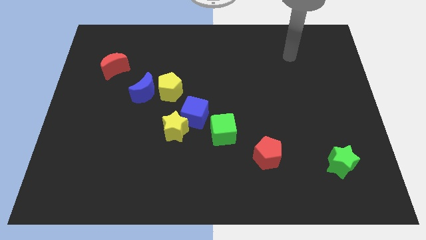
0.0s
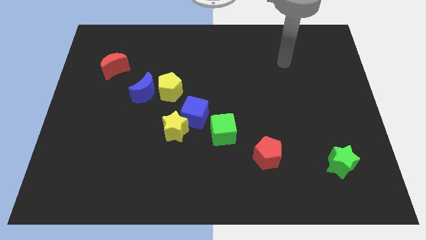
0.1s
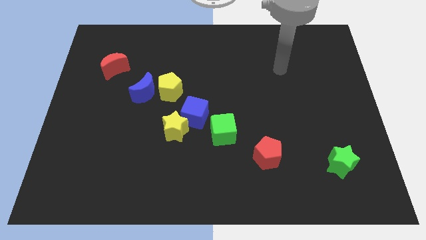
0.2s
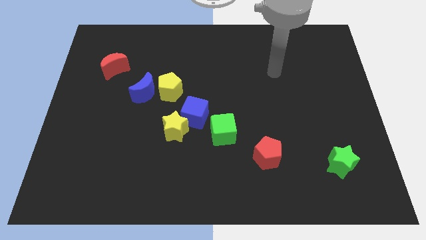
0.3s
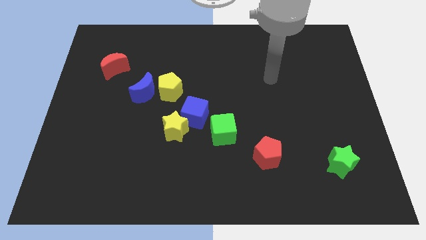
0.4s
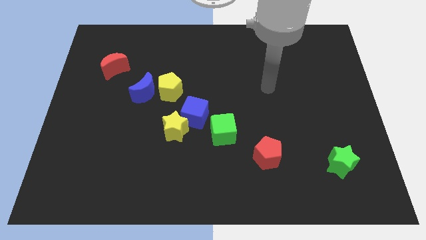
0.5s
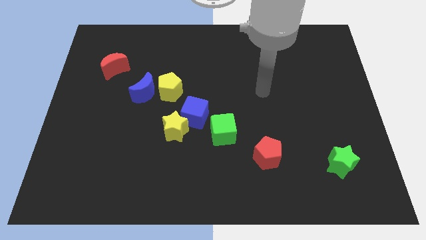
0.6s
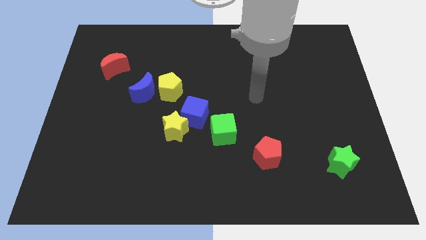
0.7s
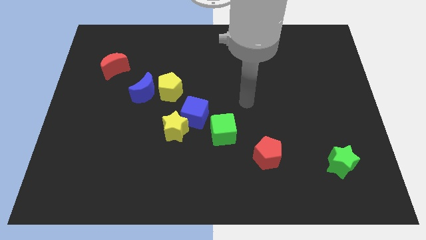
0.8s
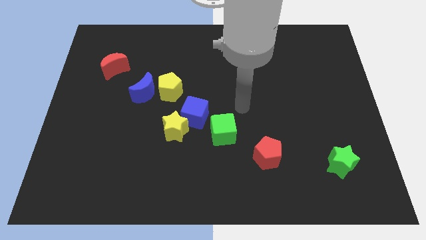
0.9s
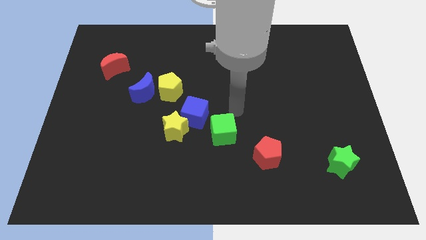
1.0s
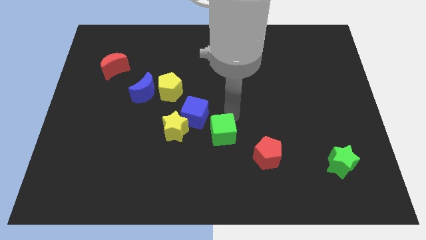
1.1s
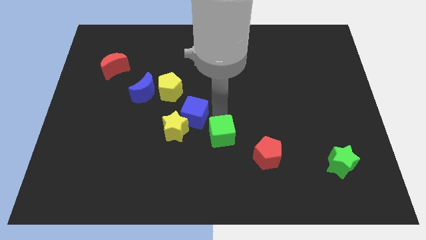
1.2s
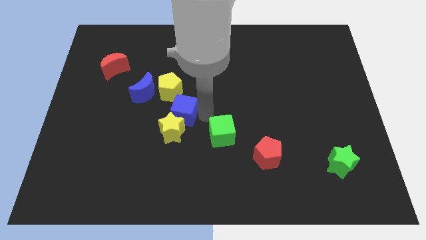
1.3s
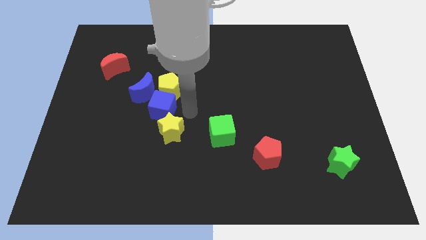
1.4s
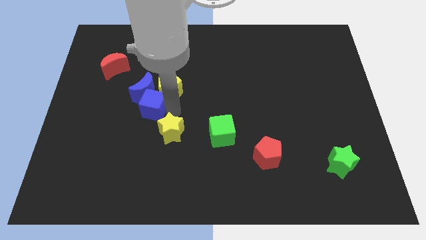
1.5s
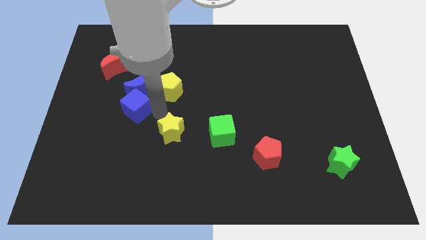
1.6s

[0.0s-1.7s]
separate the yellow star from the blue cube

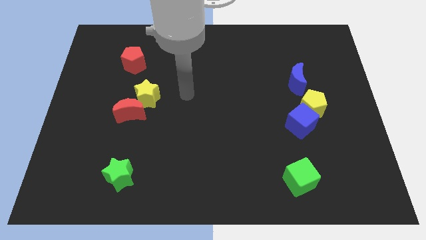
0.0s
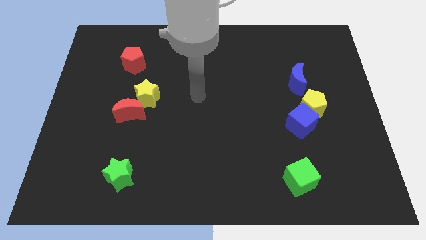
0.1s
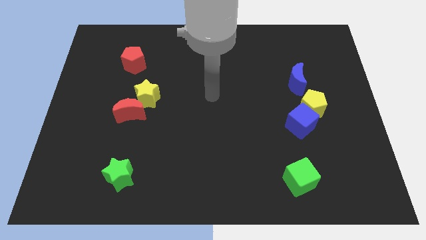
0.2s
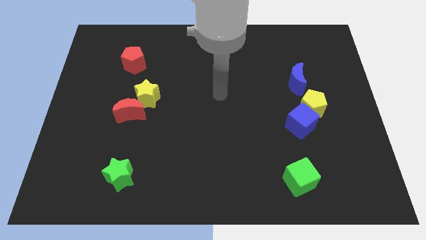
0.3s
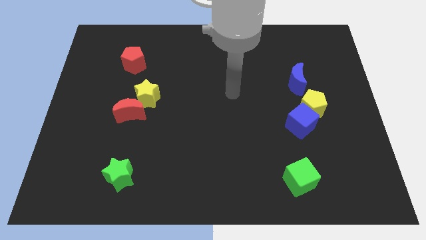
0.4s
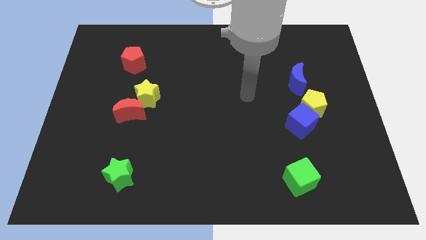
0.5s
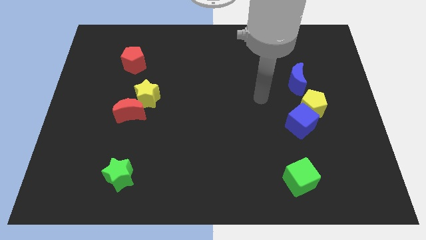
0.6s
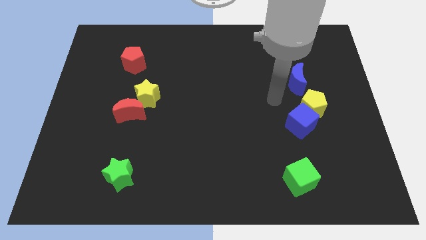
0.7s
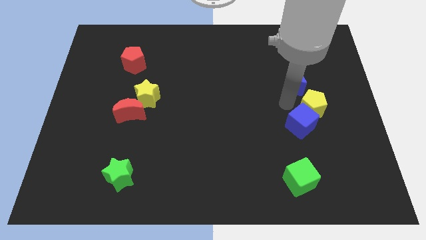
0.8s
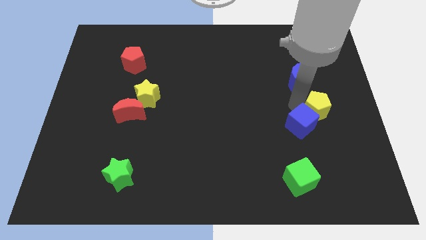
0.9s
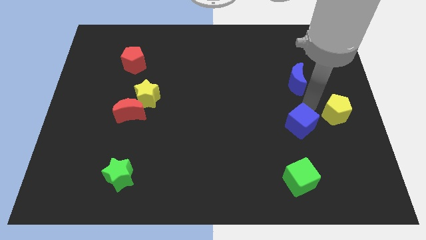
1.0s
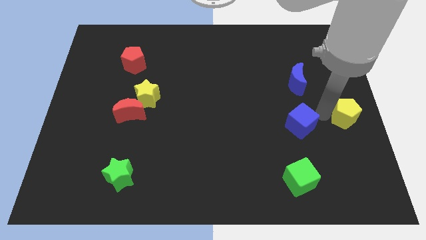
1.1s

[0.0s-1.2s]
move the blue cube away from the yellow pentagon

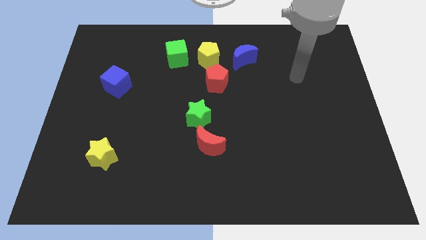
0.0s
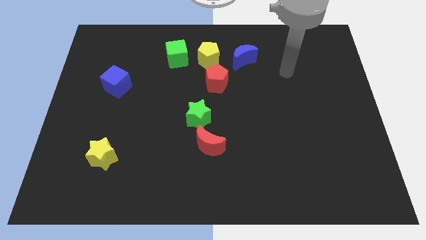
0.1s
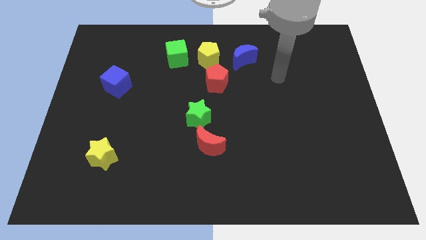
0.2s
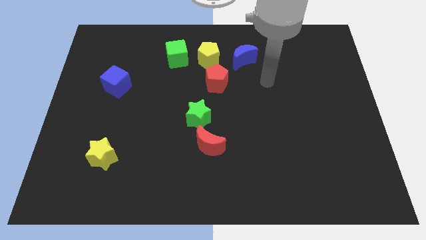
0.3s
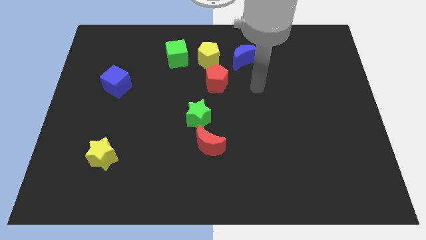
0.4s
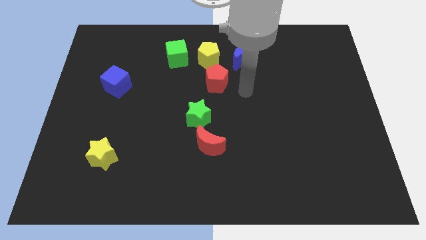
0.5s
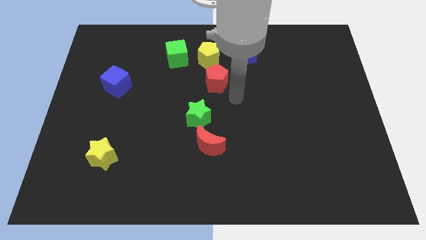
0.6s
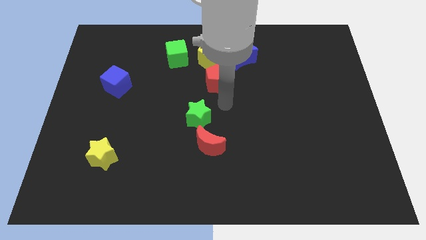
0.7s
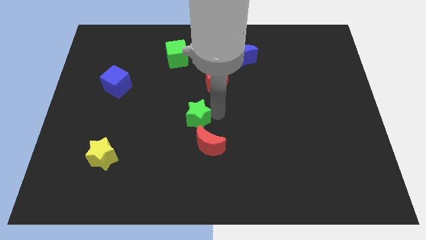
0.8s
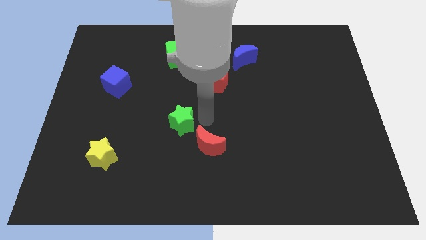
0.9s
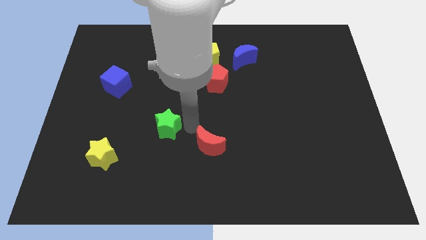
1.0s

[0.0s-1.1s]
move the red moon away from the green star

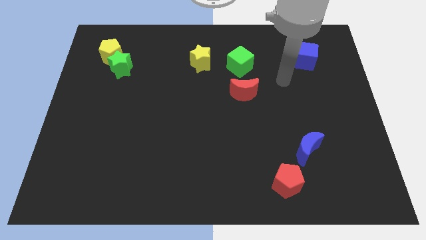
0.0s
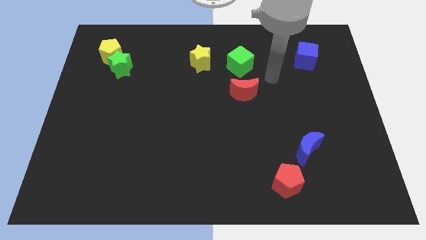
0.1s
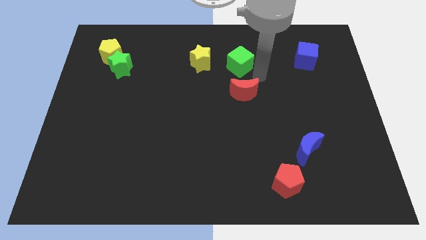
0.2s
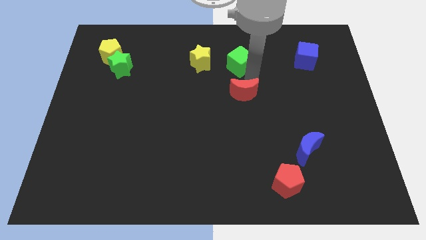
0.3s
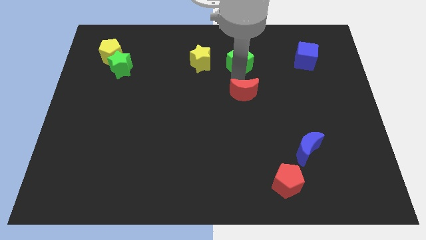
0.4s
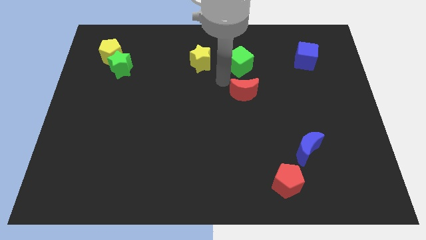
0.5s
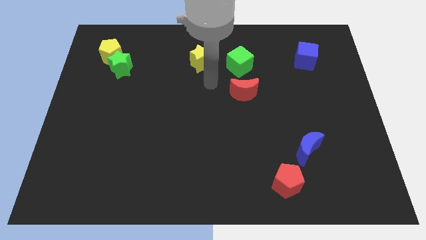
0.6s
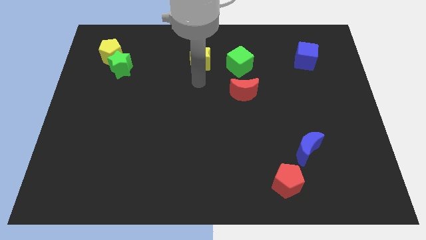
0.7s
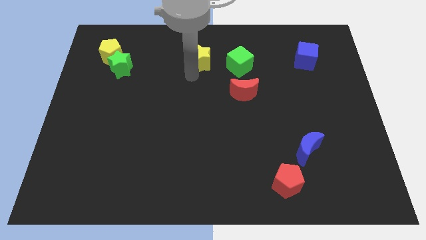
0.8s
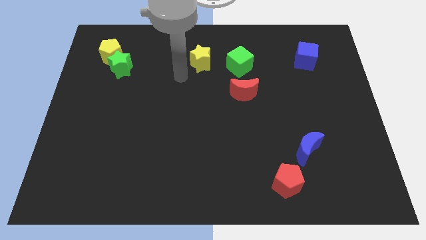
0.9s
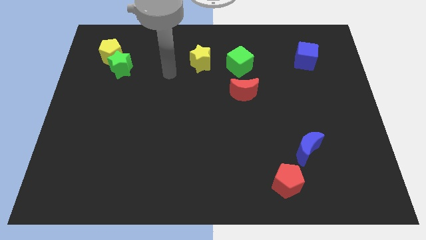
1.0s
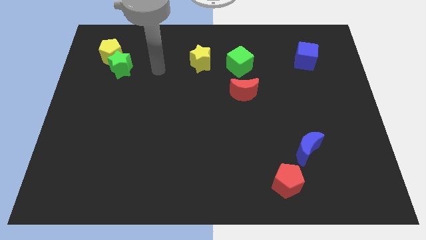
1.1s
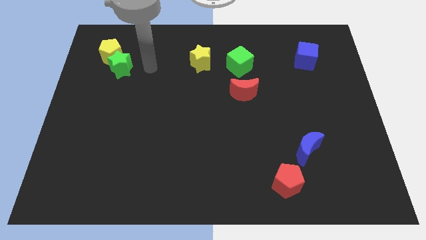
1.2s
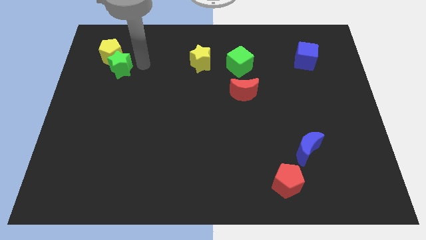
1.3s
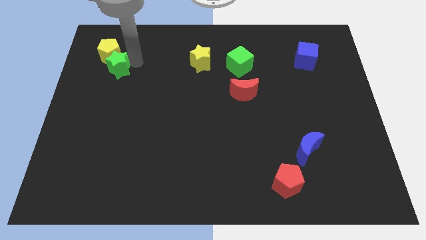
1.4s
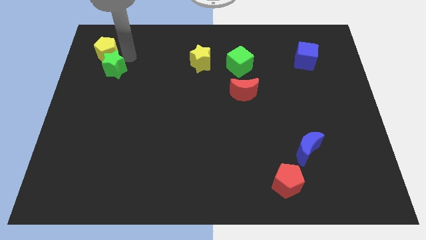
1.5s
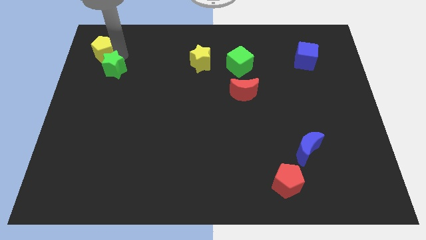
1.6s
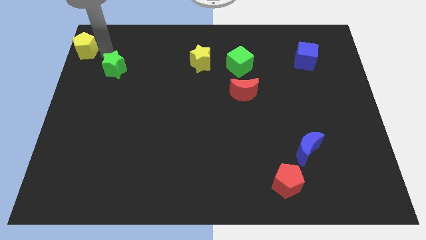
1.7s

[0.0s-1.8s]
move the green star away from the yellow pentagon

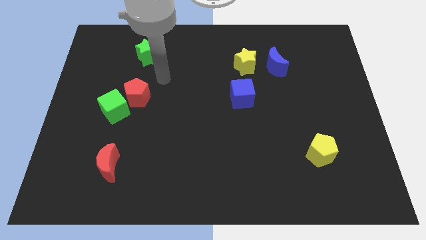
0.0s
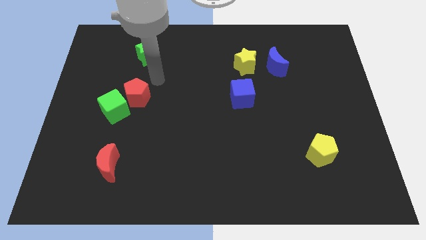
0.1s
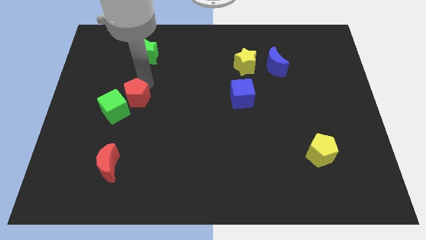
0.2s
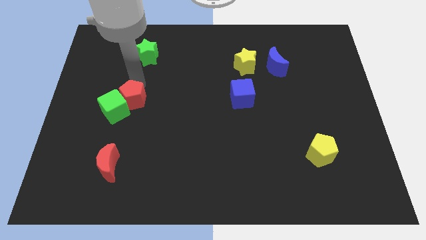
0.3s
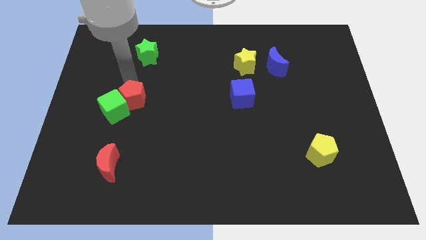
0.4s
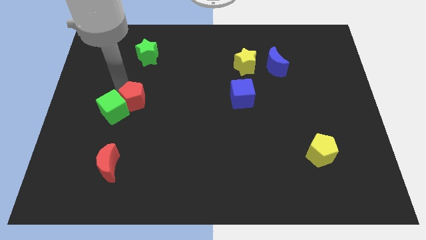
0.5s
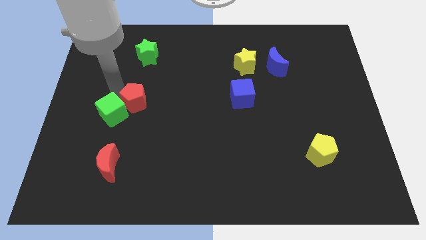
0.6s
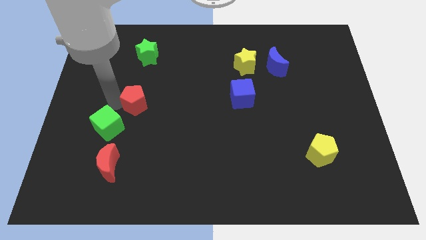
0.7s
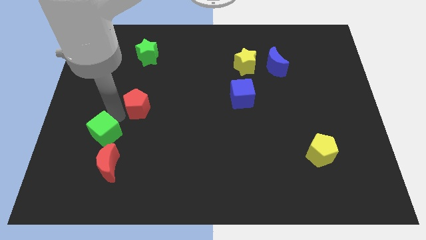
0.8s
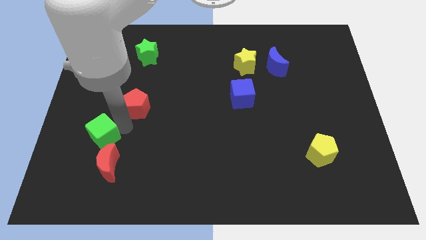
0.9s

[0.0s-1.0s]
separate the red pentagon from the green cube

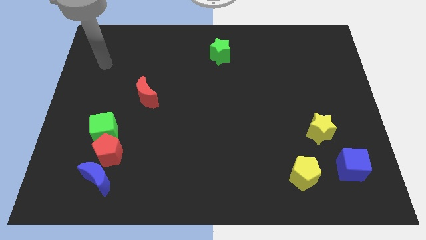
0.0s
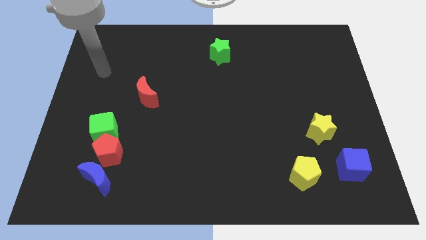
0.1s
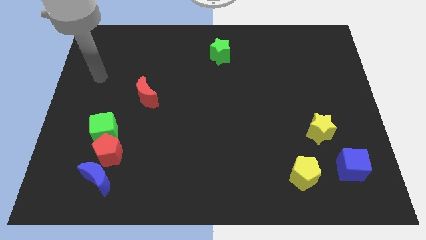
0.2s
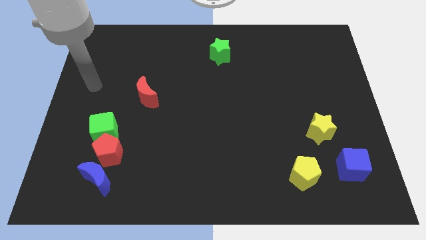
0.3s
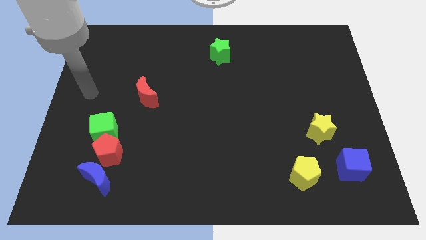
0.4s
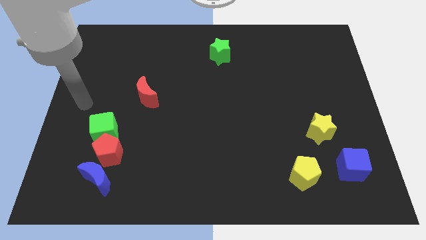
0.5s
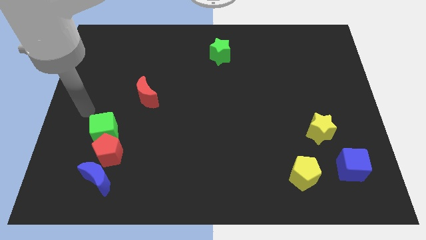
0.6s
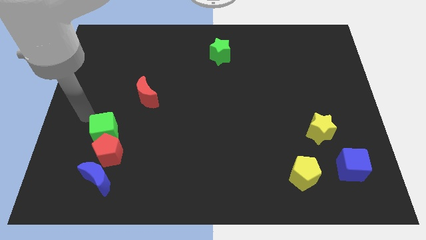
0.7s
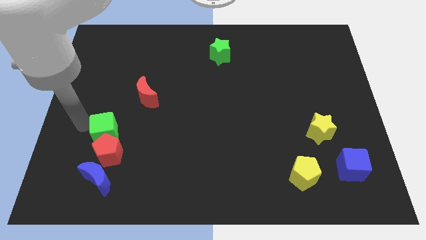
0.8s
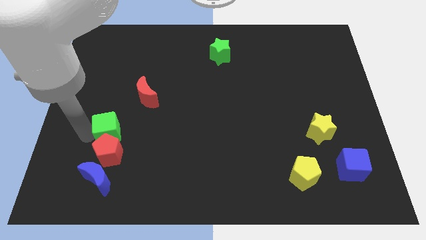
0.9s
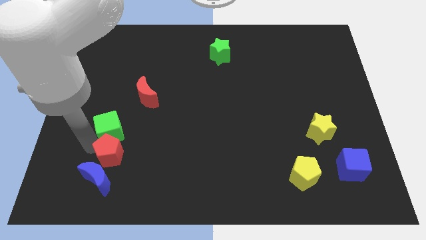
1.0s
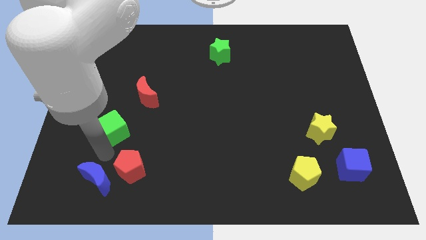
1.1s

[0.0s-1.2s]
separate the green cube from the red pentagon

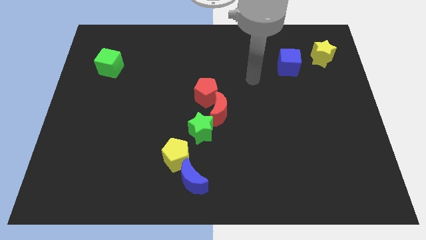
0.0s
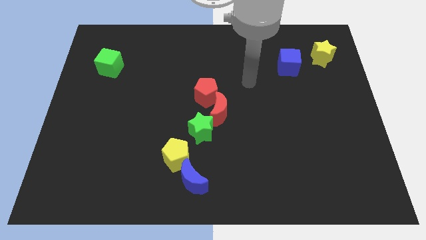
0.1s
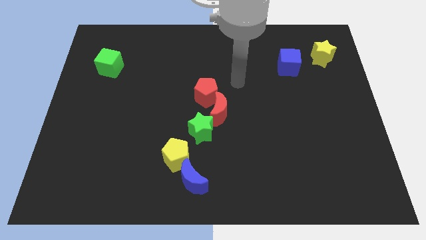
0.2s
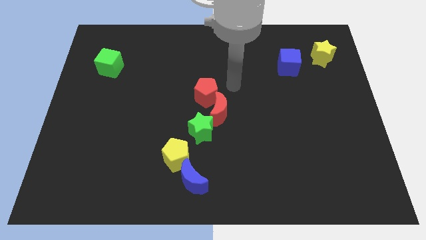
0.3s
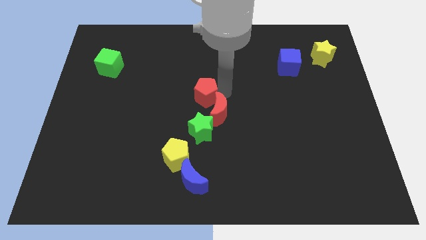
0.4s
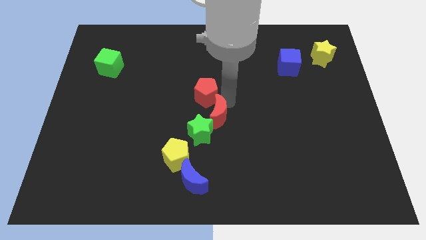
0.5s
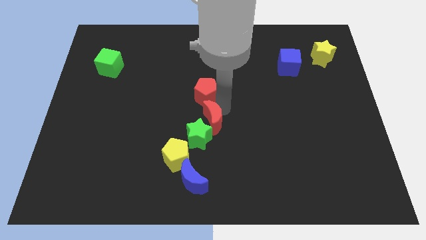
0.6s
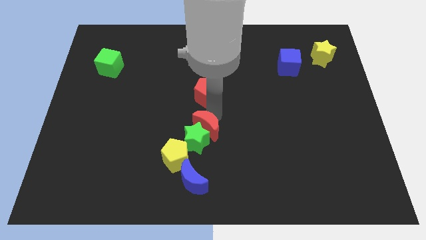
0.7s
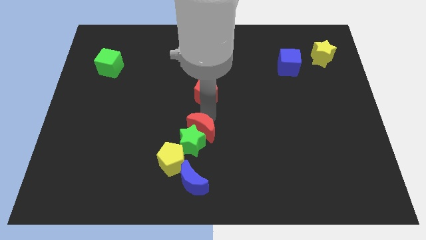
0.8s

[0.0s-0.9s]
pull the red pentagon apart from the red moon

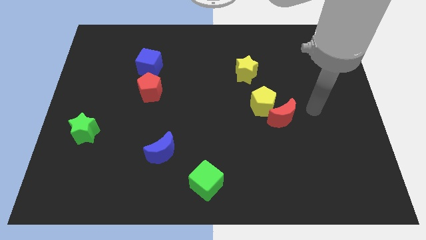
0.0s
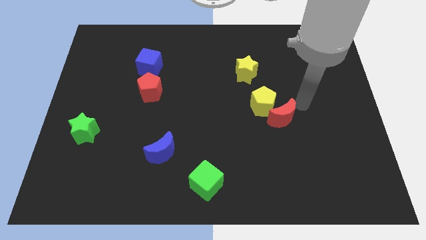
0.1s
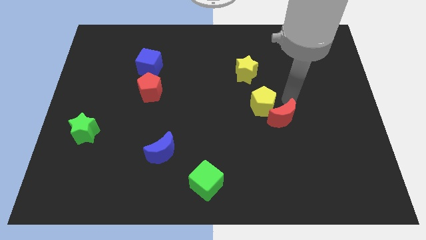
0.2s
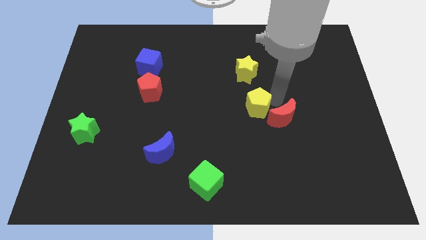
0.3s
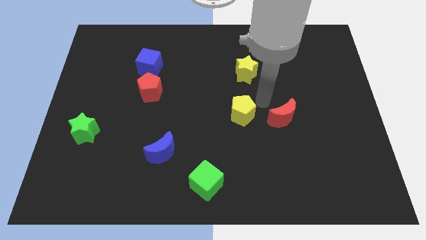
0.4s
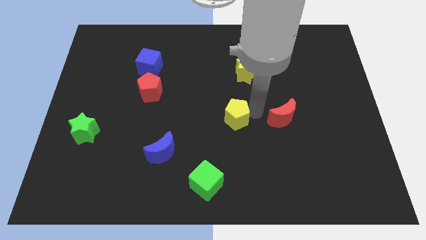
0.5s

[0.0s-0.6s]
pull the red moon apart from the yellow pentagon
